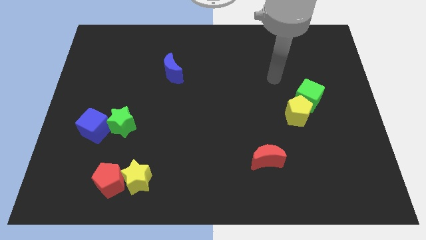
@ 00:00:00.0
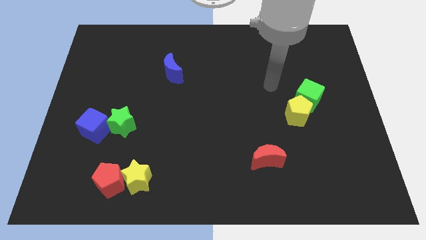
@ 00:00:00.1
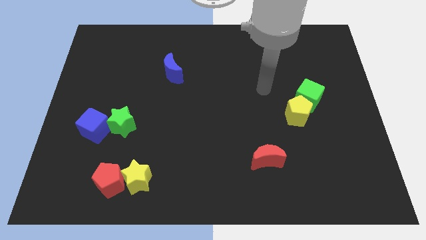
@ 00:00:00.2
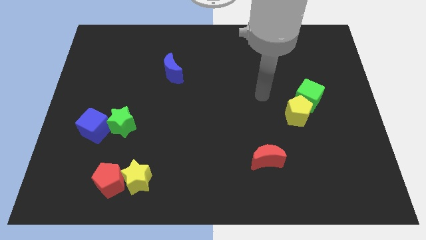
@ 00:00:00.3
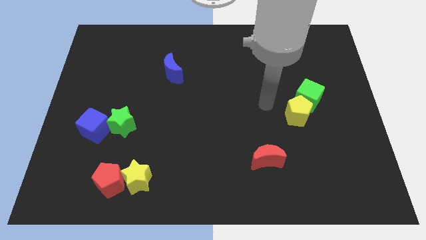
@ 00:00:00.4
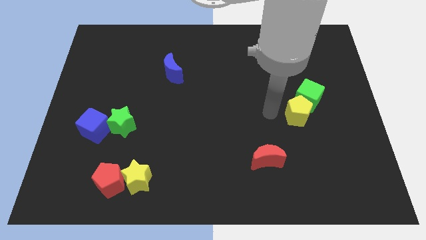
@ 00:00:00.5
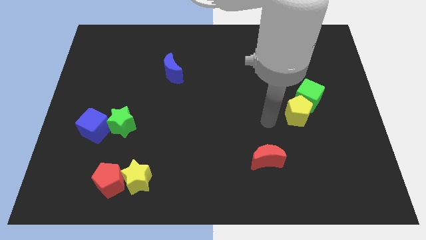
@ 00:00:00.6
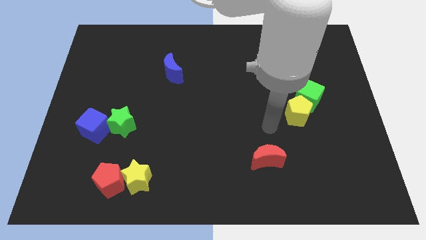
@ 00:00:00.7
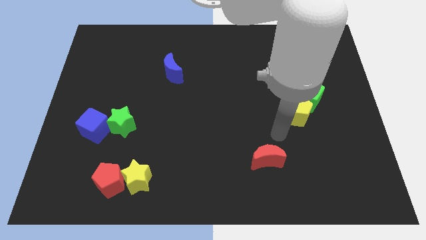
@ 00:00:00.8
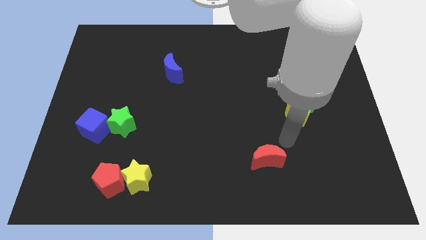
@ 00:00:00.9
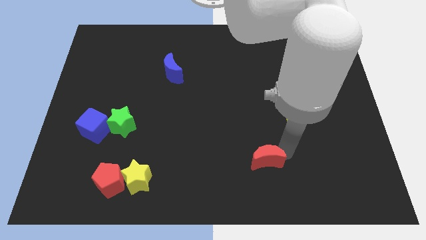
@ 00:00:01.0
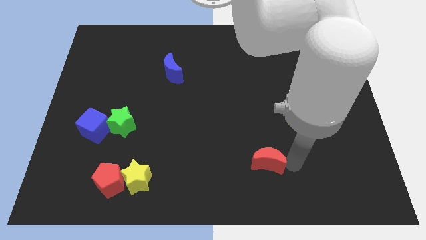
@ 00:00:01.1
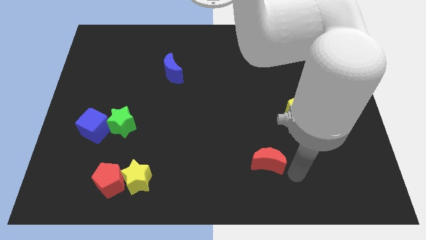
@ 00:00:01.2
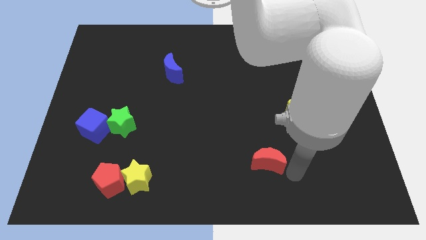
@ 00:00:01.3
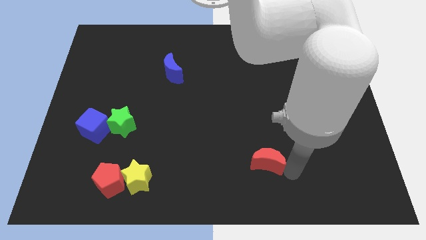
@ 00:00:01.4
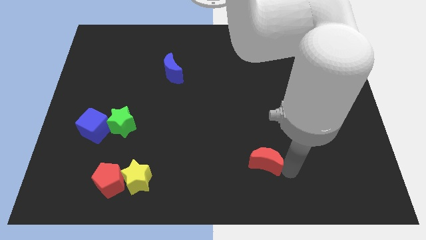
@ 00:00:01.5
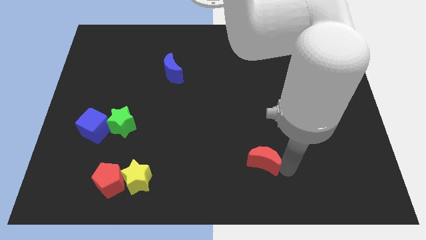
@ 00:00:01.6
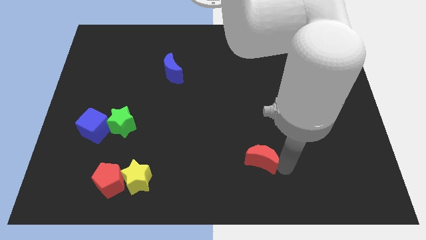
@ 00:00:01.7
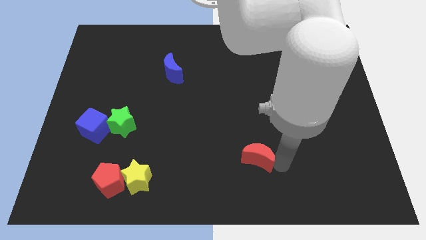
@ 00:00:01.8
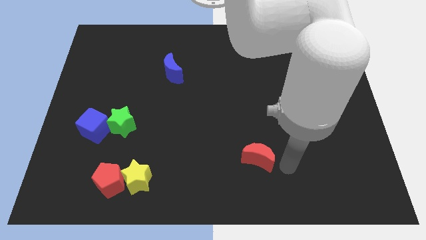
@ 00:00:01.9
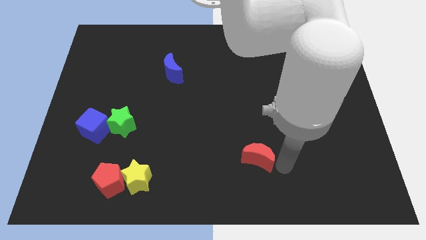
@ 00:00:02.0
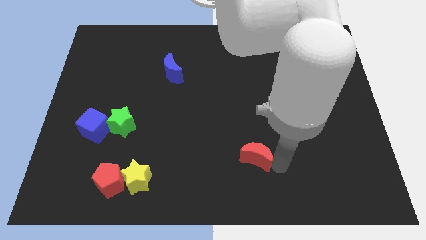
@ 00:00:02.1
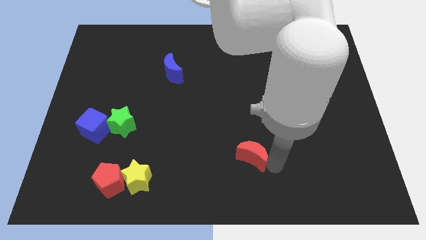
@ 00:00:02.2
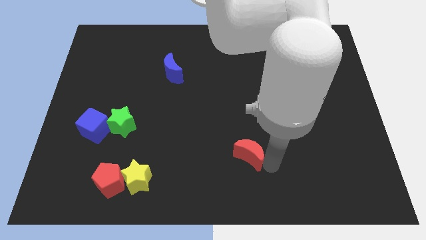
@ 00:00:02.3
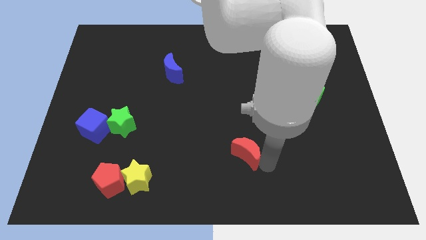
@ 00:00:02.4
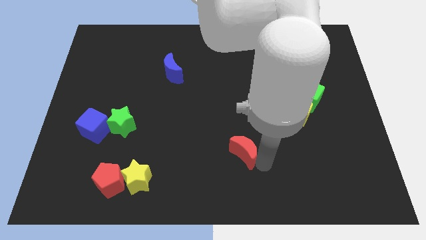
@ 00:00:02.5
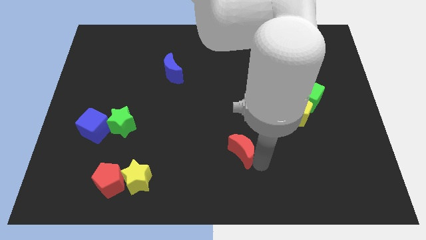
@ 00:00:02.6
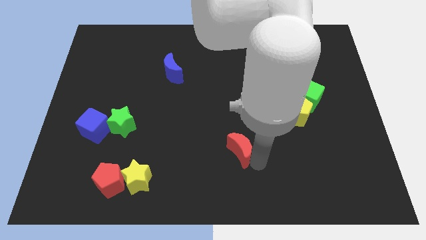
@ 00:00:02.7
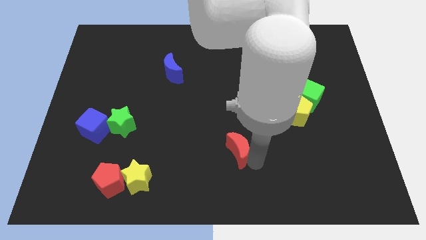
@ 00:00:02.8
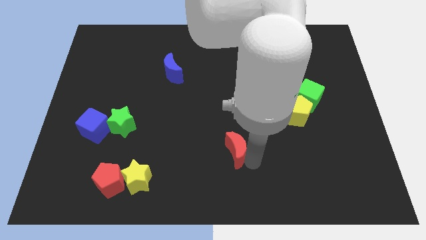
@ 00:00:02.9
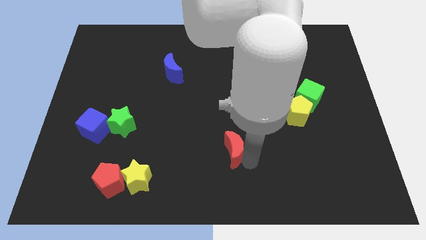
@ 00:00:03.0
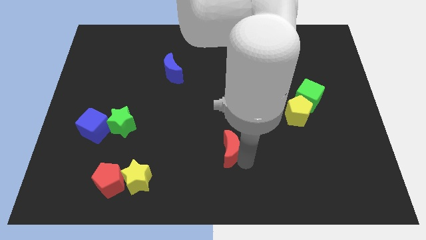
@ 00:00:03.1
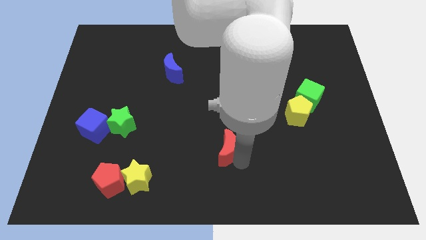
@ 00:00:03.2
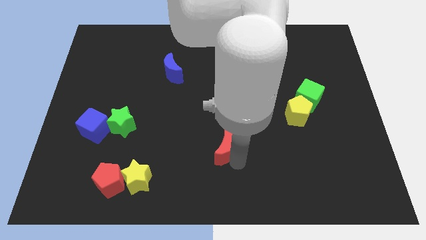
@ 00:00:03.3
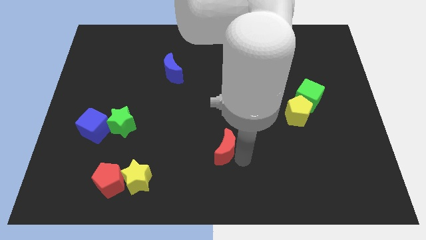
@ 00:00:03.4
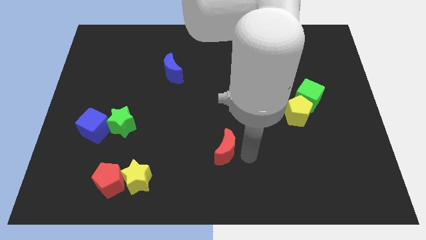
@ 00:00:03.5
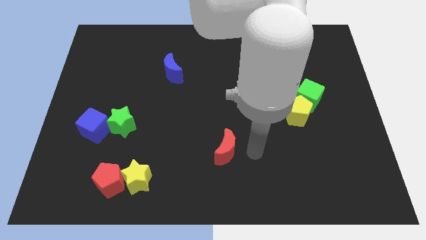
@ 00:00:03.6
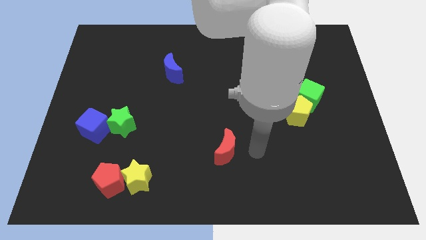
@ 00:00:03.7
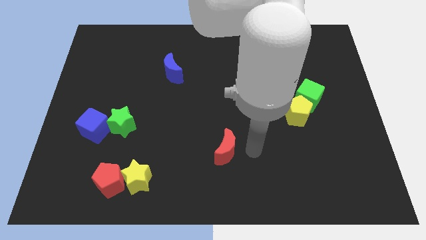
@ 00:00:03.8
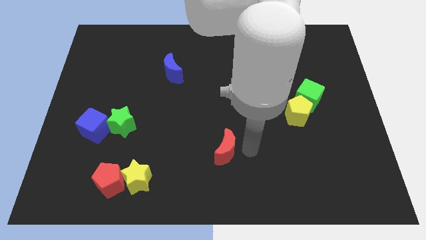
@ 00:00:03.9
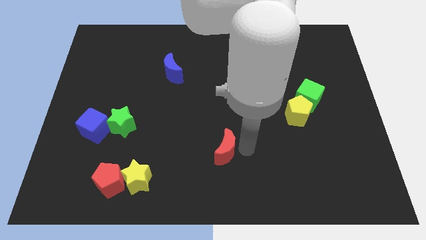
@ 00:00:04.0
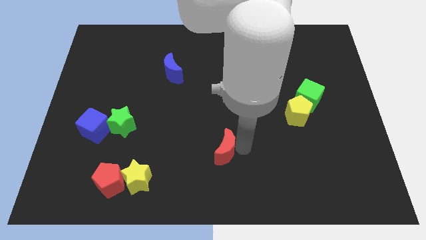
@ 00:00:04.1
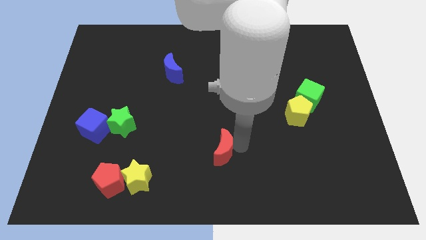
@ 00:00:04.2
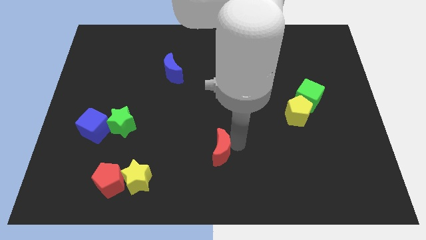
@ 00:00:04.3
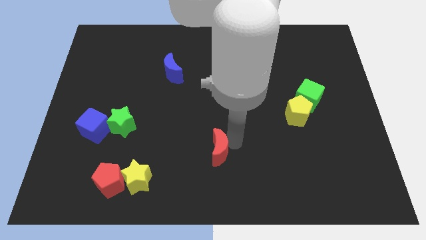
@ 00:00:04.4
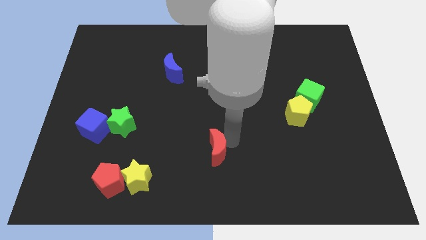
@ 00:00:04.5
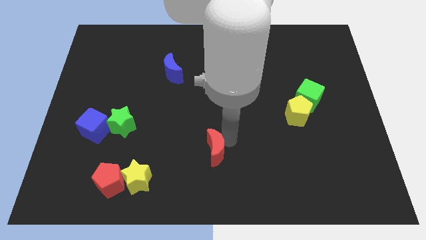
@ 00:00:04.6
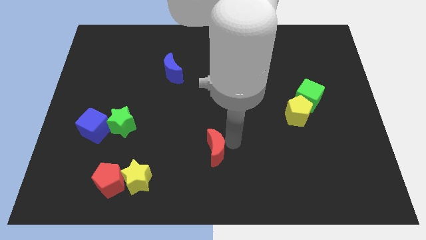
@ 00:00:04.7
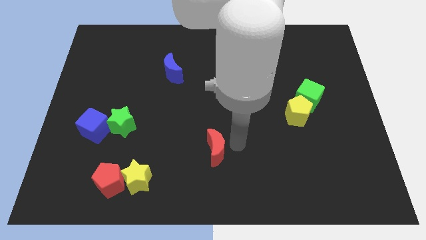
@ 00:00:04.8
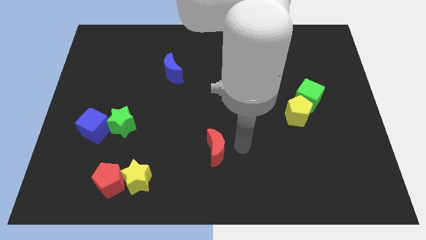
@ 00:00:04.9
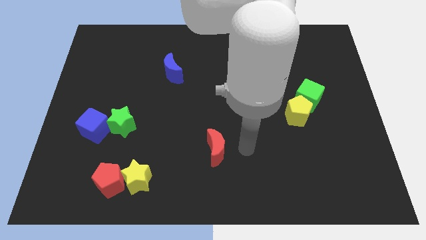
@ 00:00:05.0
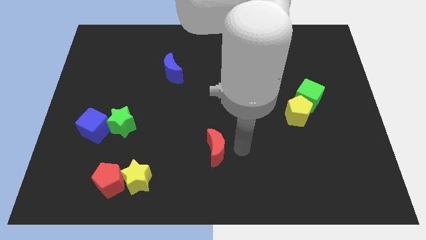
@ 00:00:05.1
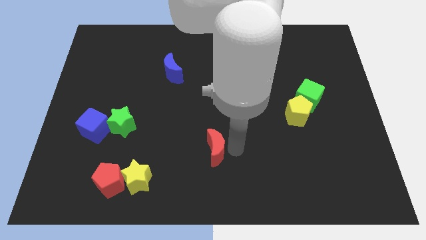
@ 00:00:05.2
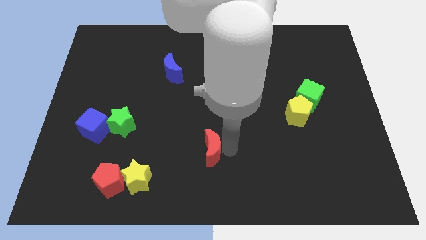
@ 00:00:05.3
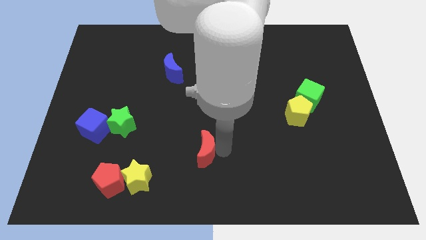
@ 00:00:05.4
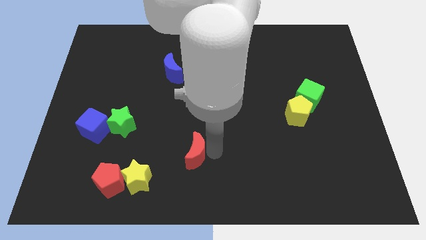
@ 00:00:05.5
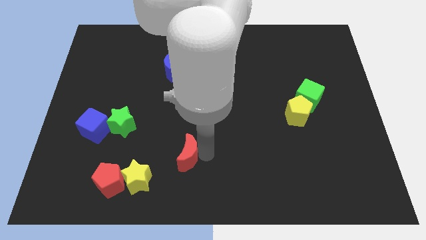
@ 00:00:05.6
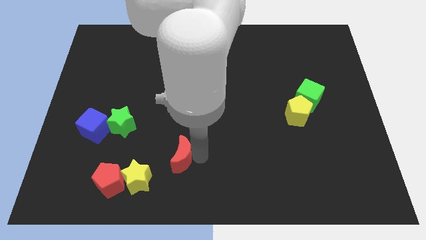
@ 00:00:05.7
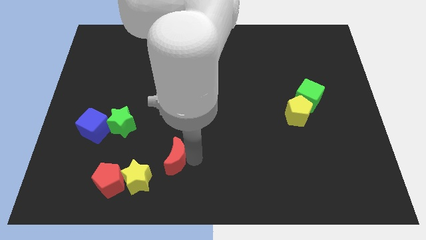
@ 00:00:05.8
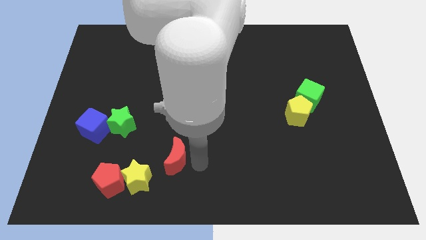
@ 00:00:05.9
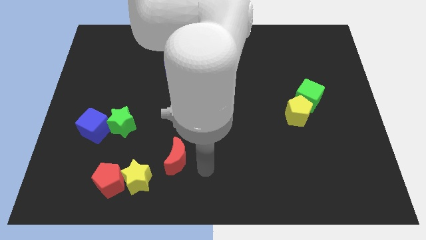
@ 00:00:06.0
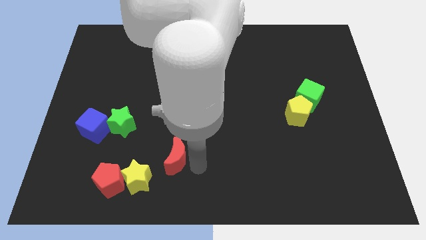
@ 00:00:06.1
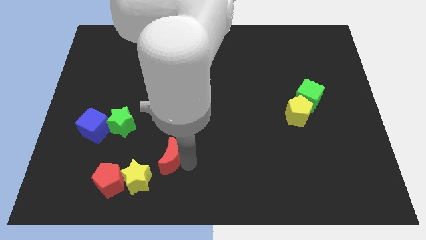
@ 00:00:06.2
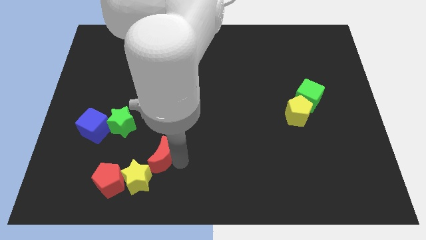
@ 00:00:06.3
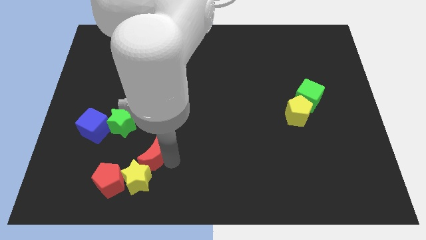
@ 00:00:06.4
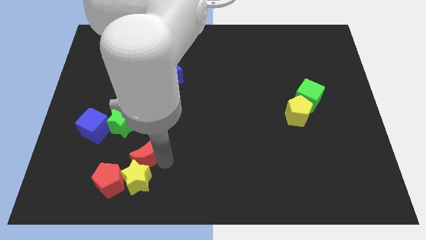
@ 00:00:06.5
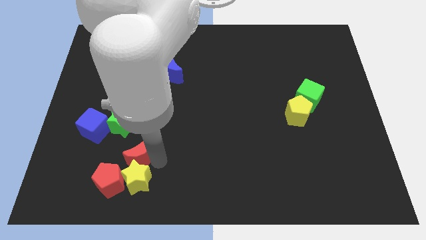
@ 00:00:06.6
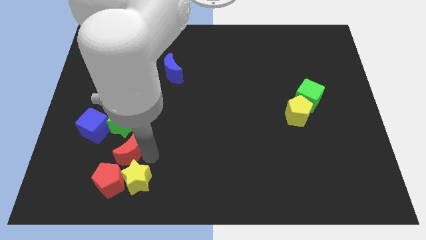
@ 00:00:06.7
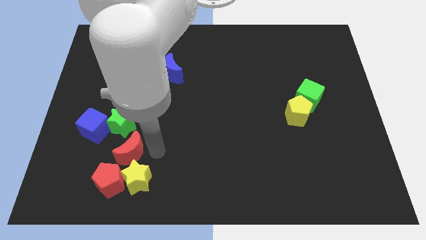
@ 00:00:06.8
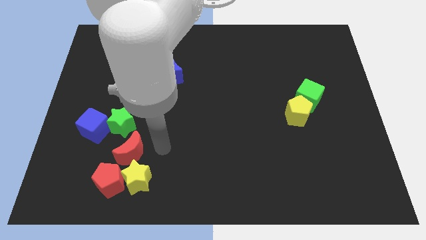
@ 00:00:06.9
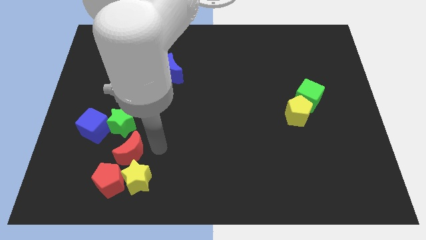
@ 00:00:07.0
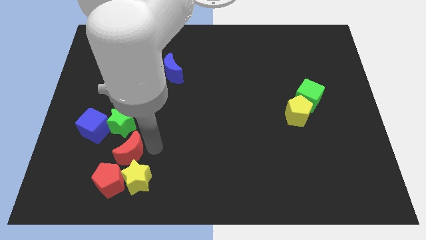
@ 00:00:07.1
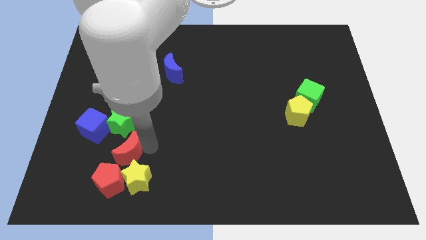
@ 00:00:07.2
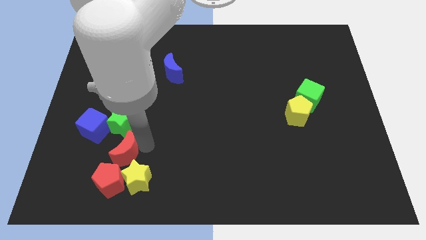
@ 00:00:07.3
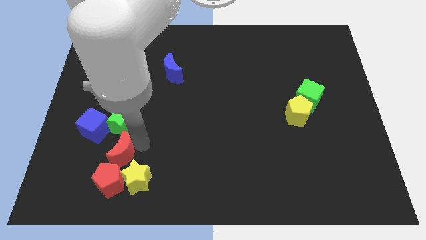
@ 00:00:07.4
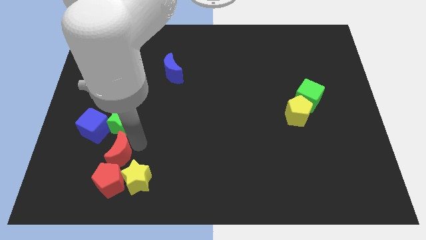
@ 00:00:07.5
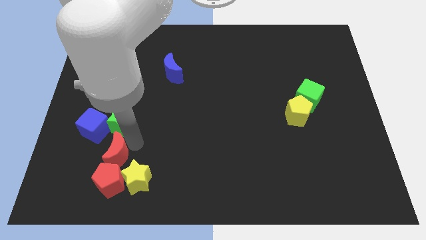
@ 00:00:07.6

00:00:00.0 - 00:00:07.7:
slide the red moon to the top left side of the red pentagon
